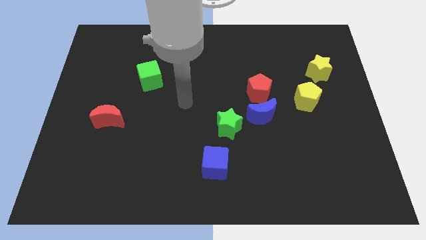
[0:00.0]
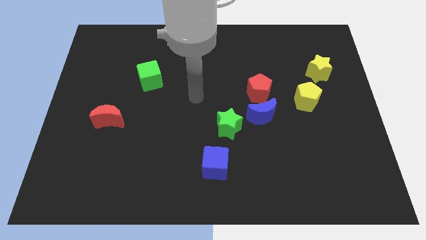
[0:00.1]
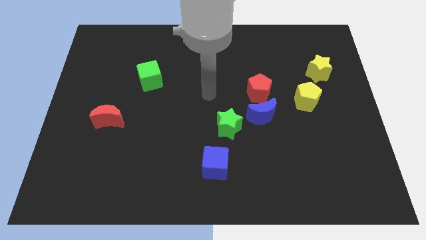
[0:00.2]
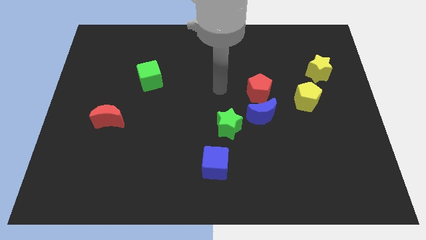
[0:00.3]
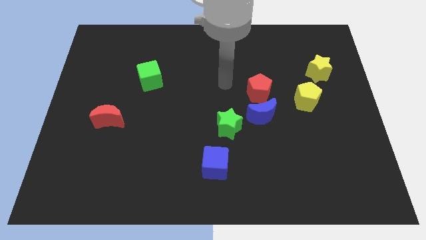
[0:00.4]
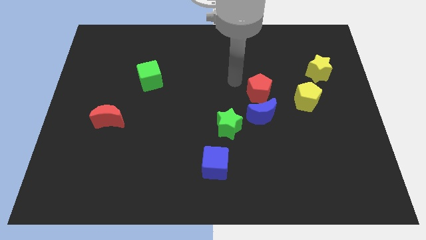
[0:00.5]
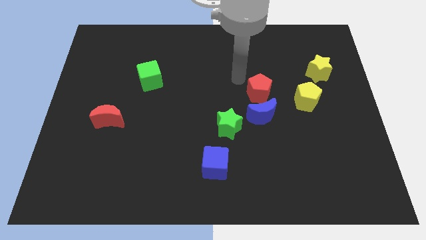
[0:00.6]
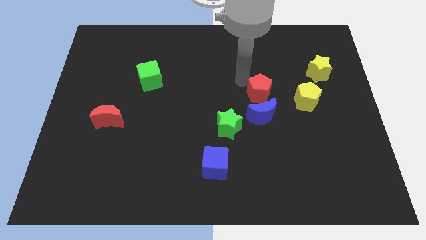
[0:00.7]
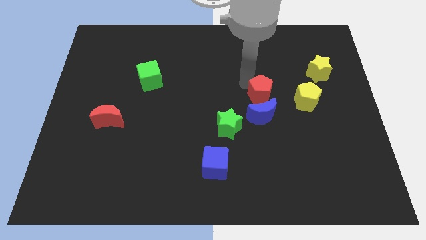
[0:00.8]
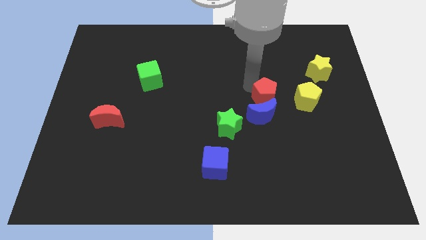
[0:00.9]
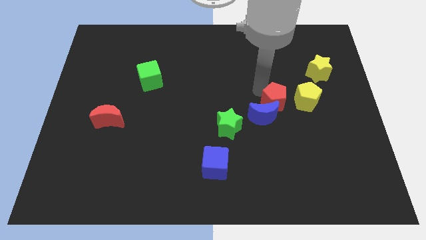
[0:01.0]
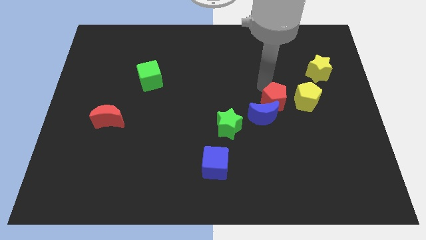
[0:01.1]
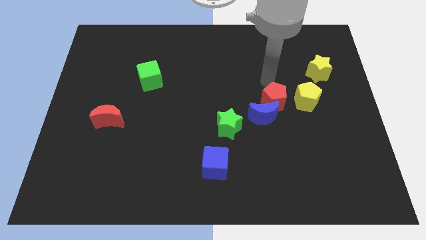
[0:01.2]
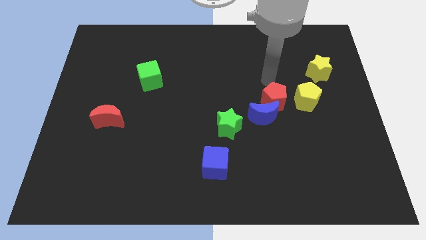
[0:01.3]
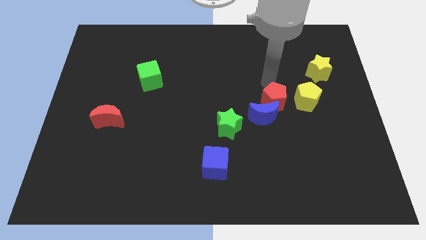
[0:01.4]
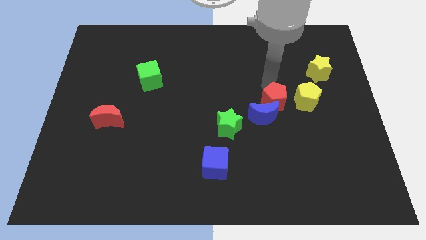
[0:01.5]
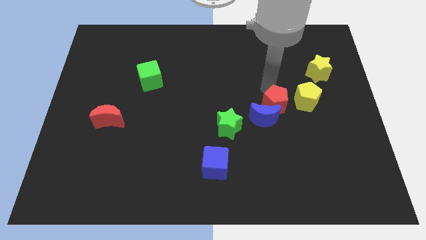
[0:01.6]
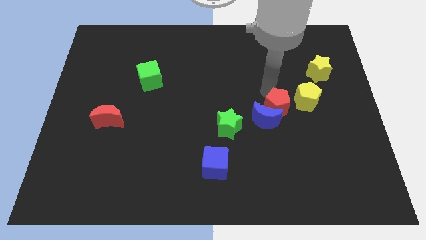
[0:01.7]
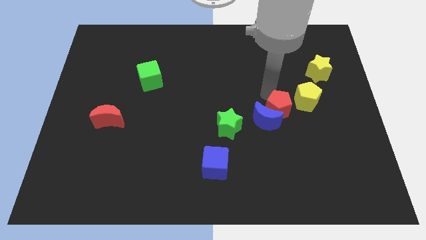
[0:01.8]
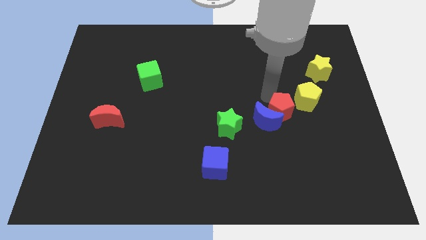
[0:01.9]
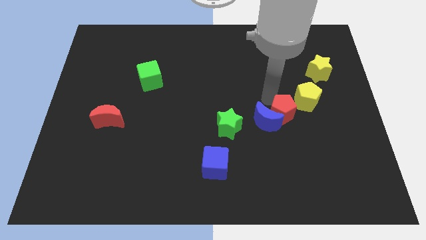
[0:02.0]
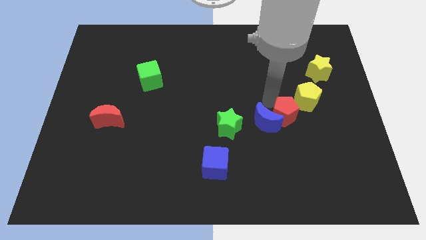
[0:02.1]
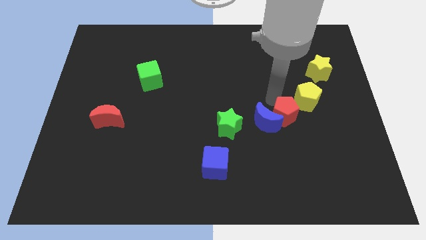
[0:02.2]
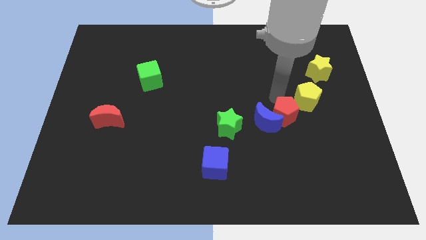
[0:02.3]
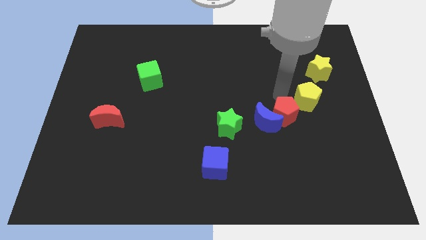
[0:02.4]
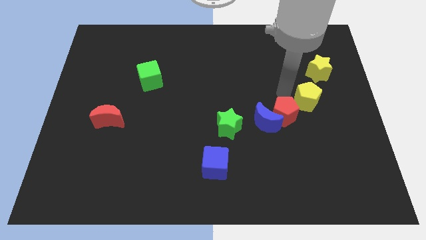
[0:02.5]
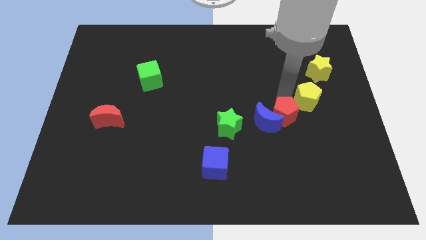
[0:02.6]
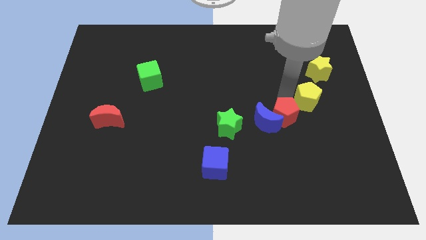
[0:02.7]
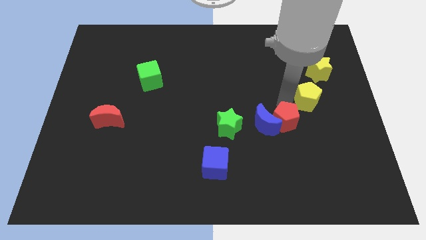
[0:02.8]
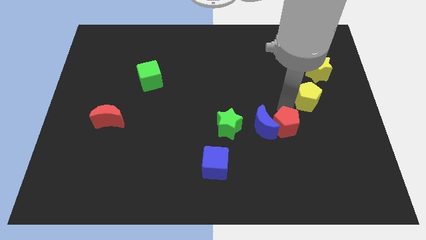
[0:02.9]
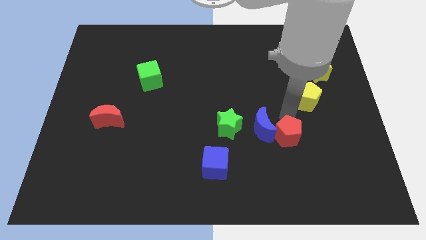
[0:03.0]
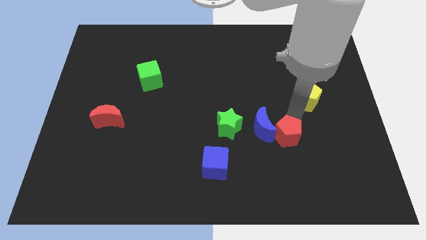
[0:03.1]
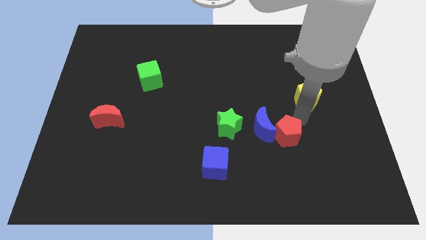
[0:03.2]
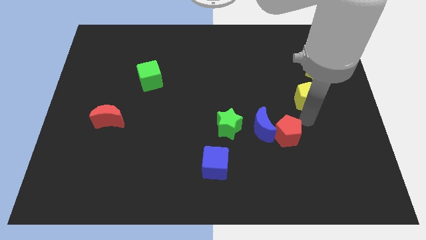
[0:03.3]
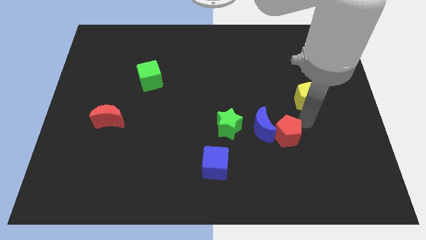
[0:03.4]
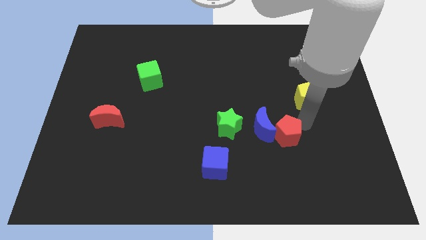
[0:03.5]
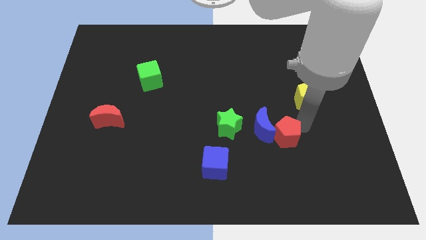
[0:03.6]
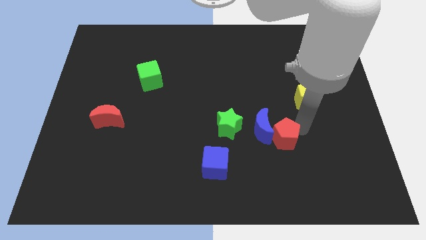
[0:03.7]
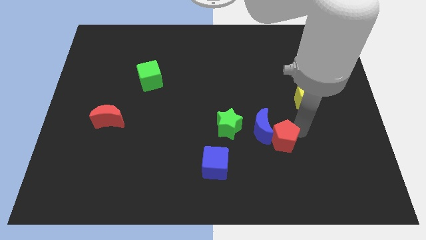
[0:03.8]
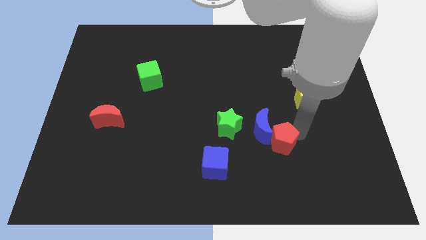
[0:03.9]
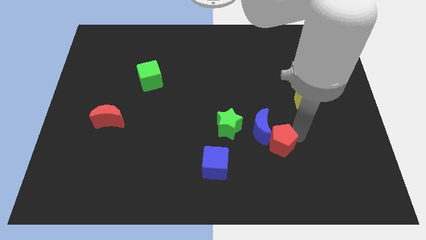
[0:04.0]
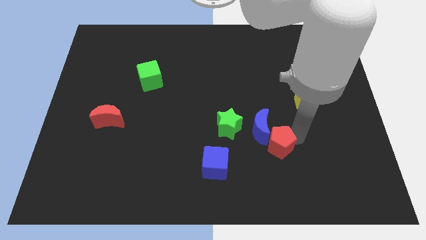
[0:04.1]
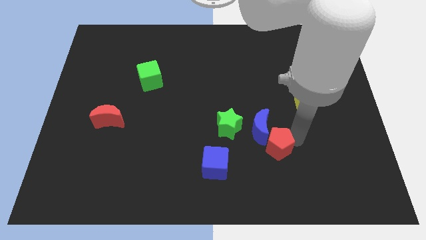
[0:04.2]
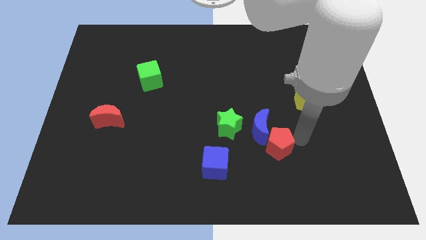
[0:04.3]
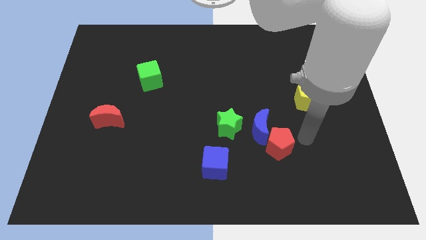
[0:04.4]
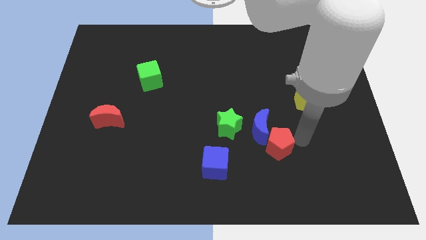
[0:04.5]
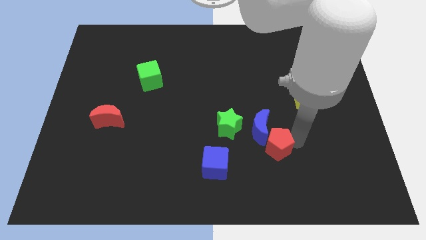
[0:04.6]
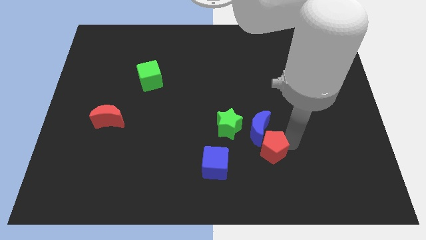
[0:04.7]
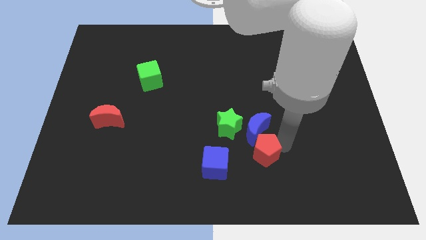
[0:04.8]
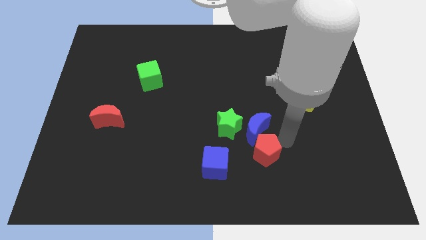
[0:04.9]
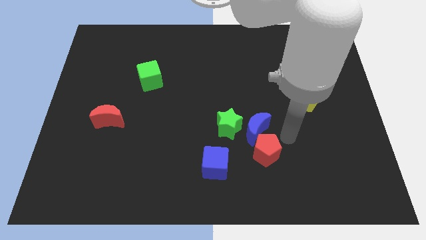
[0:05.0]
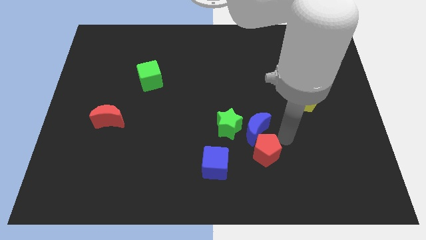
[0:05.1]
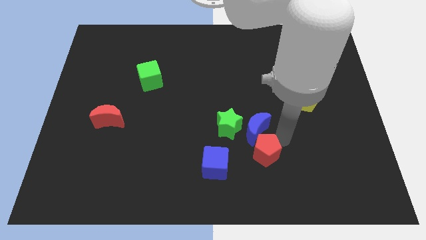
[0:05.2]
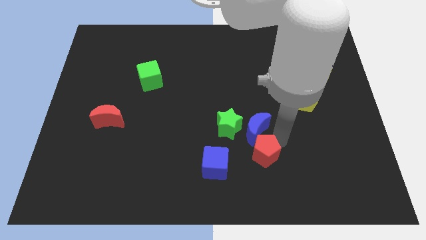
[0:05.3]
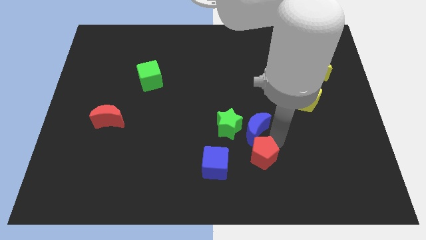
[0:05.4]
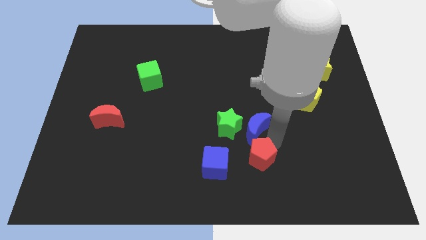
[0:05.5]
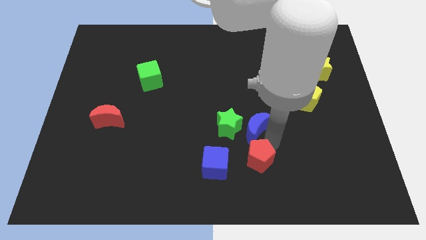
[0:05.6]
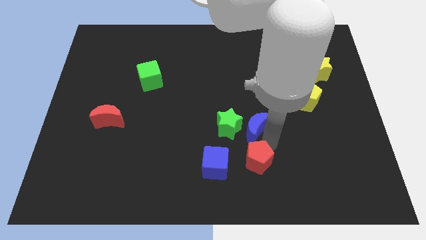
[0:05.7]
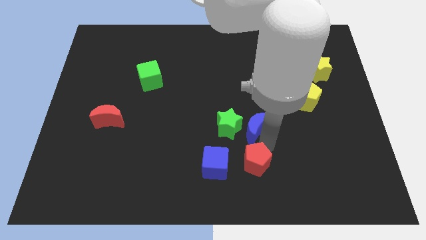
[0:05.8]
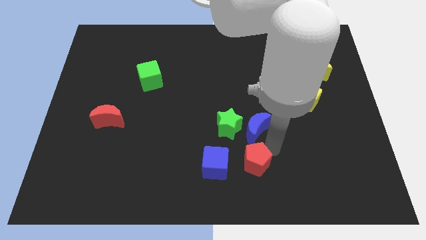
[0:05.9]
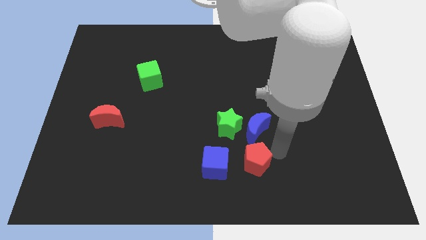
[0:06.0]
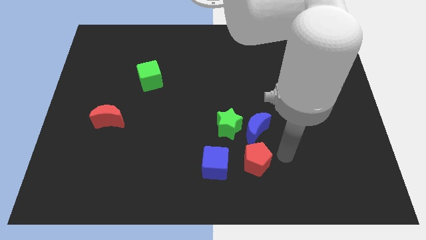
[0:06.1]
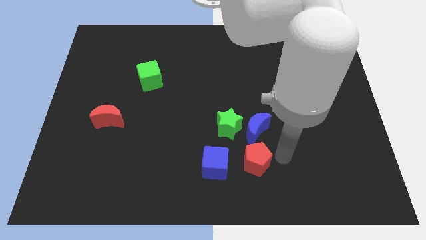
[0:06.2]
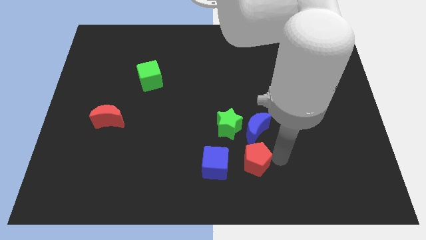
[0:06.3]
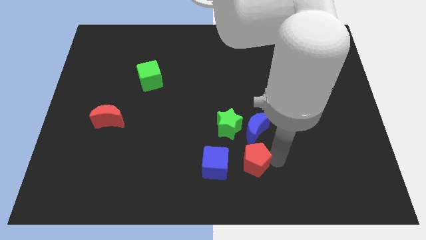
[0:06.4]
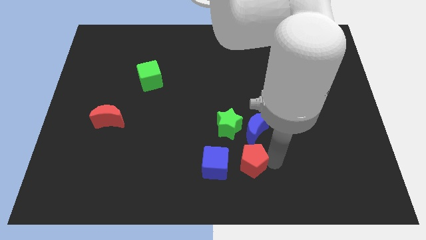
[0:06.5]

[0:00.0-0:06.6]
put the red pentagon below the green star
